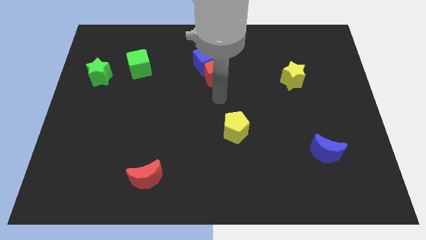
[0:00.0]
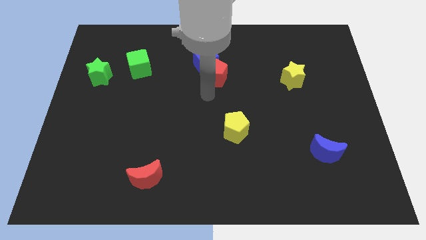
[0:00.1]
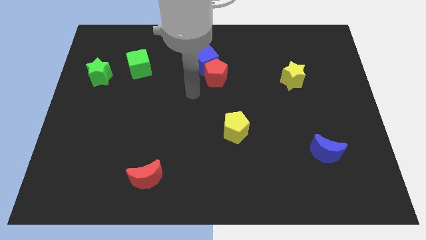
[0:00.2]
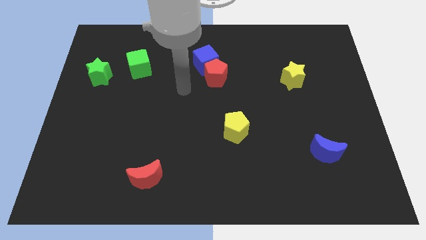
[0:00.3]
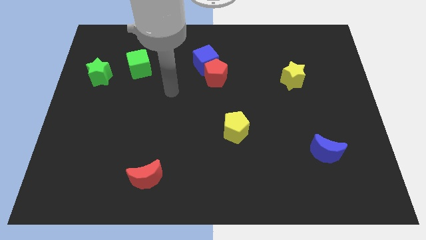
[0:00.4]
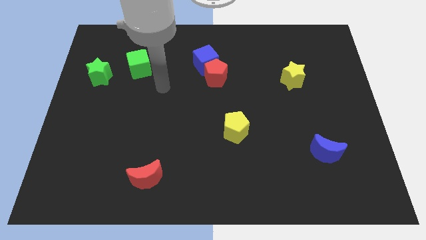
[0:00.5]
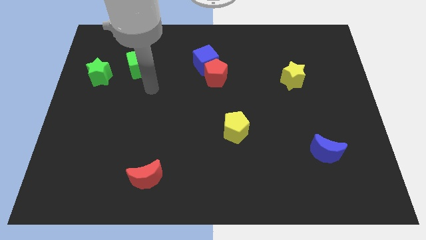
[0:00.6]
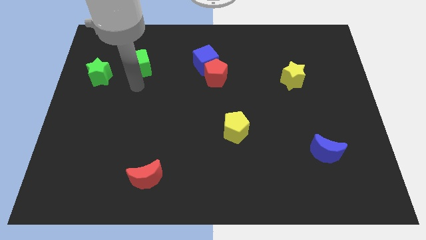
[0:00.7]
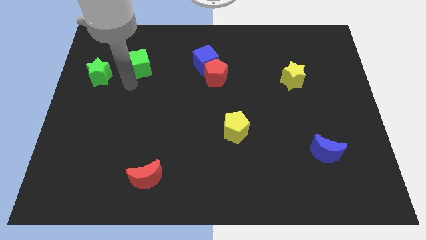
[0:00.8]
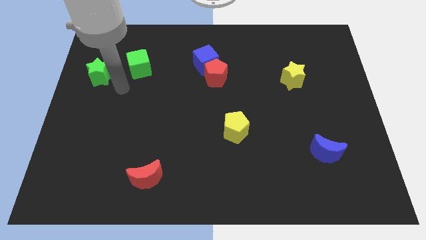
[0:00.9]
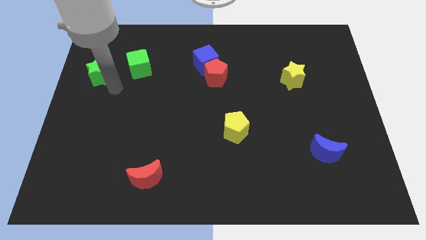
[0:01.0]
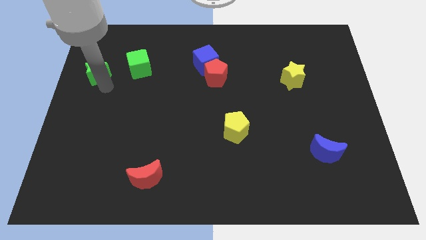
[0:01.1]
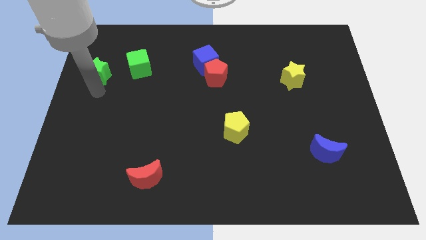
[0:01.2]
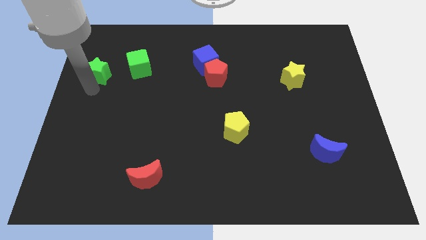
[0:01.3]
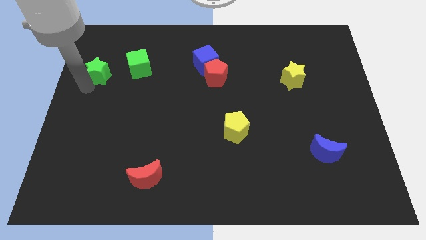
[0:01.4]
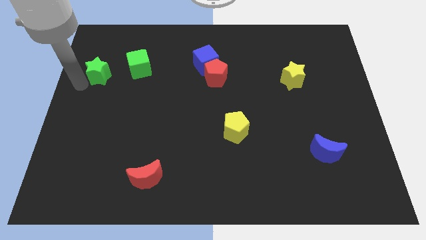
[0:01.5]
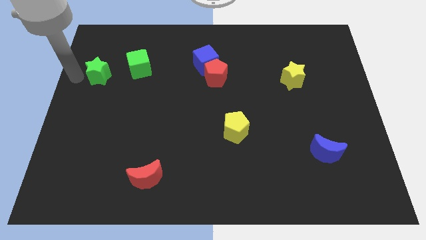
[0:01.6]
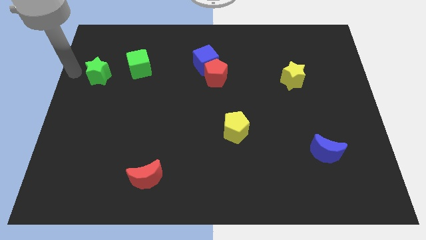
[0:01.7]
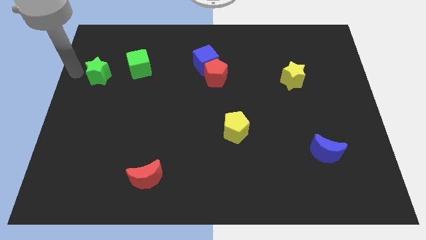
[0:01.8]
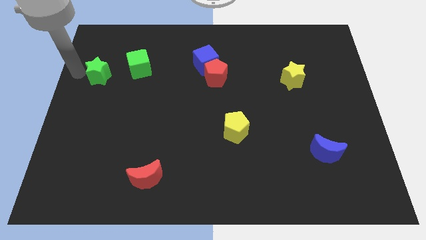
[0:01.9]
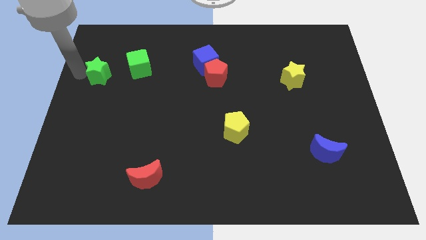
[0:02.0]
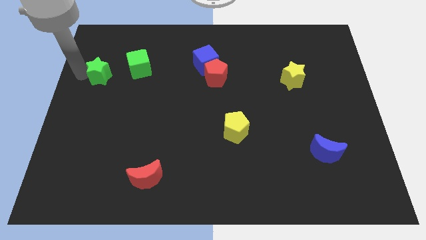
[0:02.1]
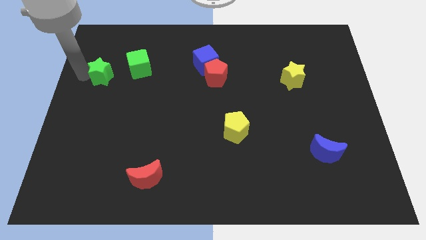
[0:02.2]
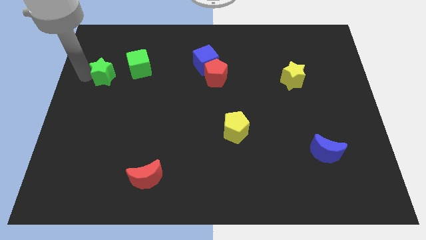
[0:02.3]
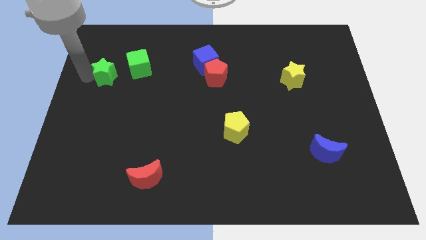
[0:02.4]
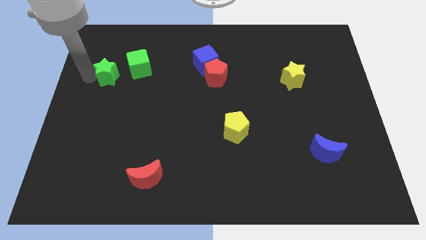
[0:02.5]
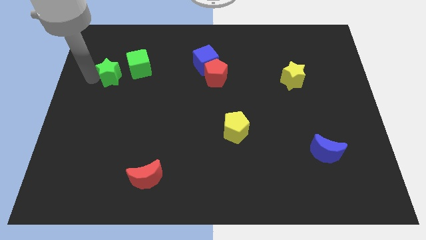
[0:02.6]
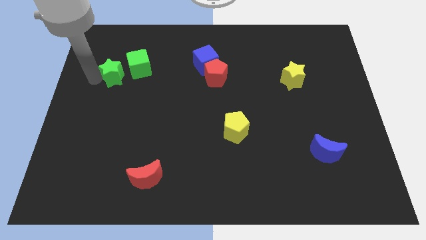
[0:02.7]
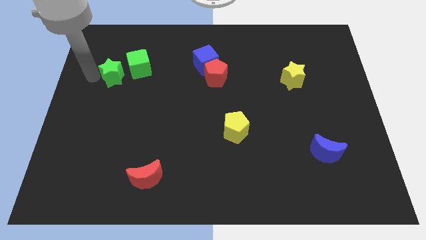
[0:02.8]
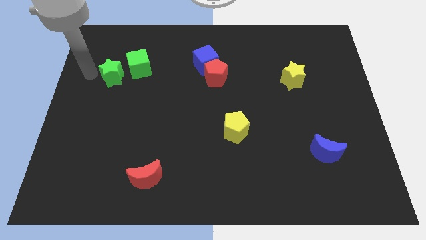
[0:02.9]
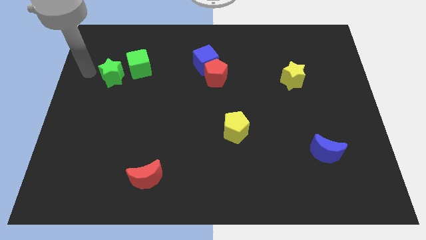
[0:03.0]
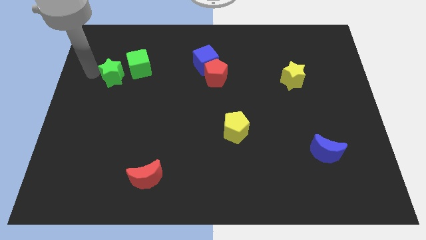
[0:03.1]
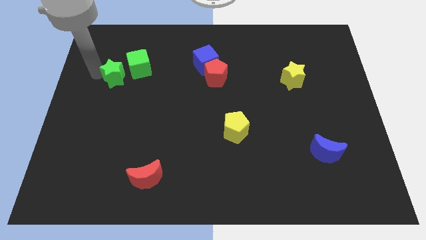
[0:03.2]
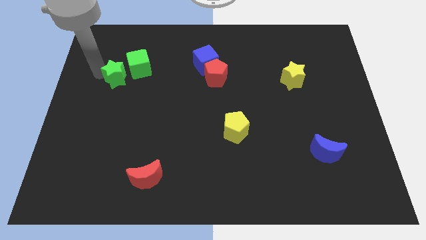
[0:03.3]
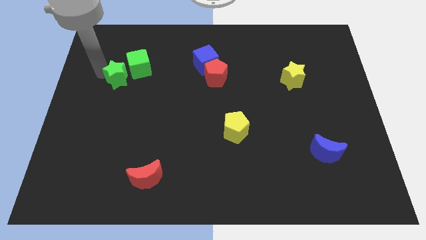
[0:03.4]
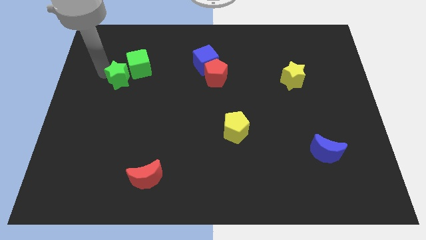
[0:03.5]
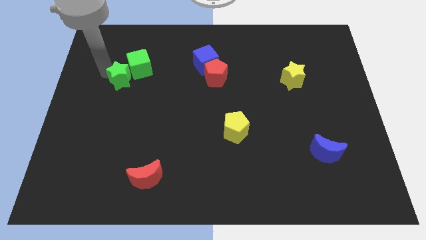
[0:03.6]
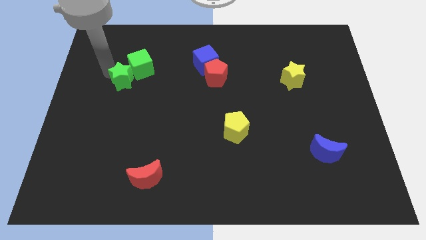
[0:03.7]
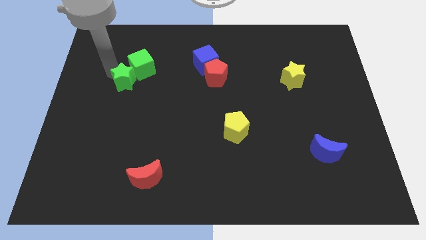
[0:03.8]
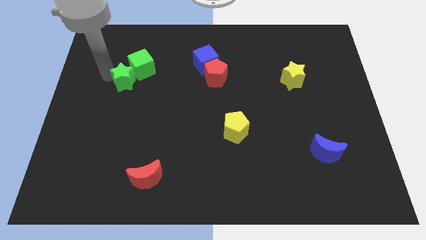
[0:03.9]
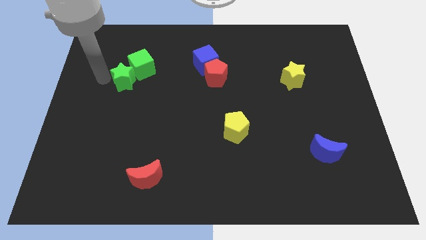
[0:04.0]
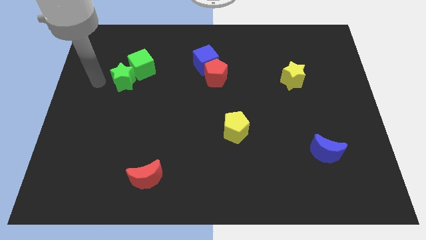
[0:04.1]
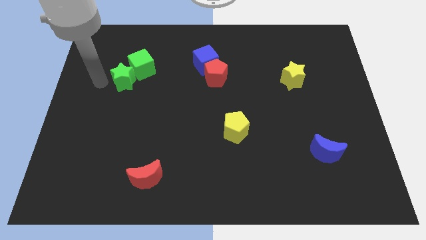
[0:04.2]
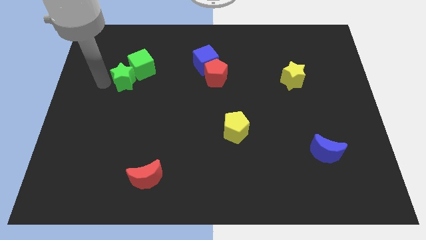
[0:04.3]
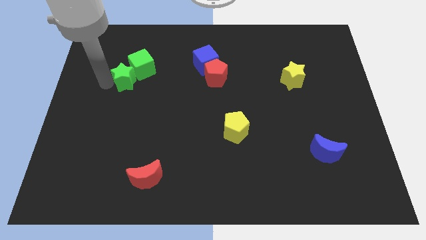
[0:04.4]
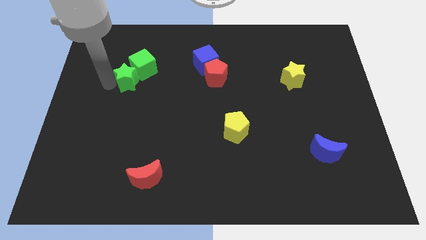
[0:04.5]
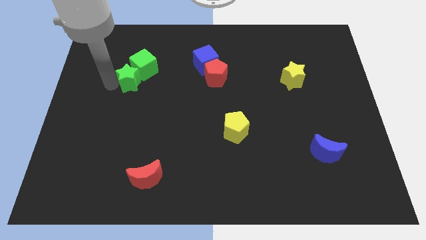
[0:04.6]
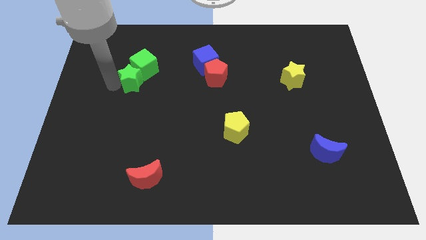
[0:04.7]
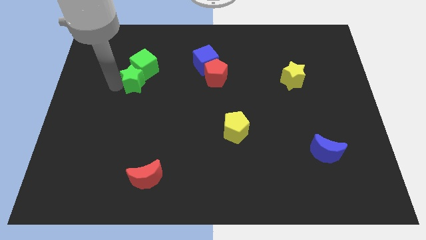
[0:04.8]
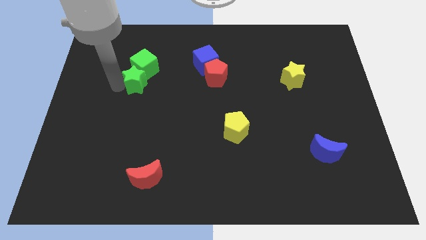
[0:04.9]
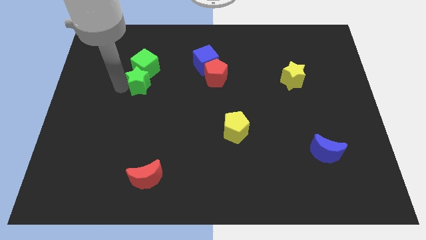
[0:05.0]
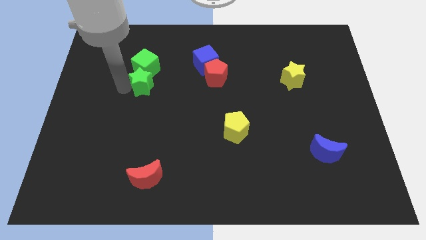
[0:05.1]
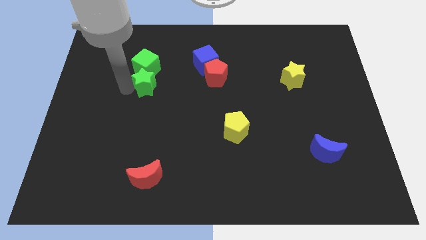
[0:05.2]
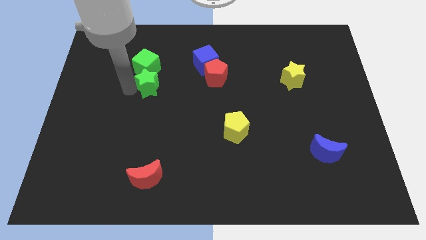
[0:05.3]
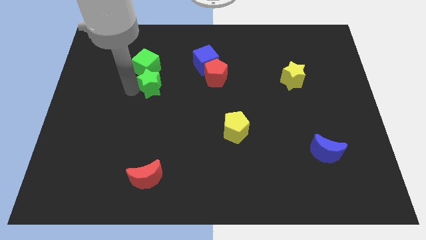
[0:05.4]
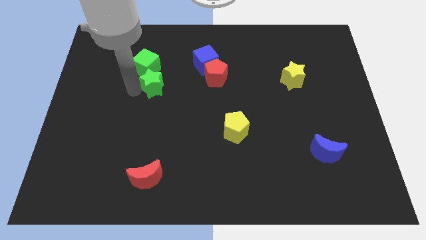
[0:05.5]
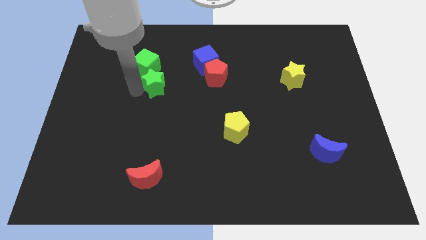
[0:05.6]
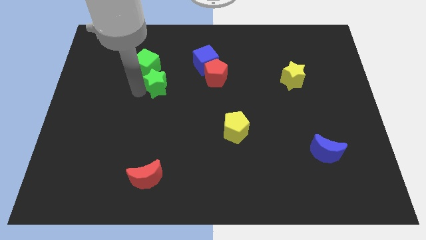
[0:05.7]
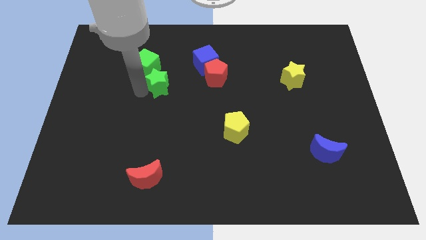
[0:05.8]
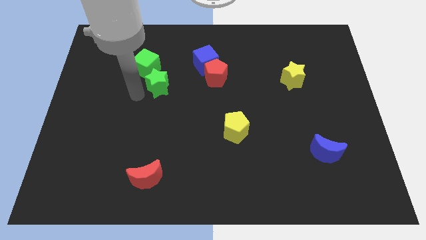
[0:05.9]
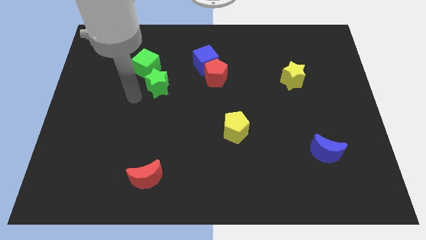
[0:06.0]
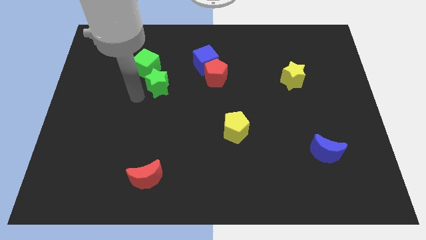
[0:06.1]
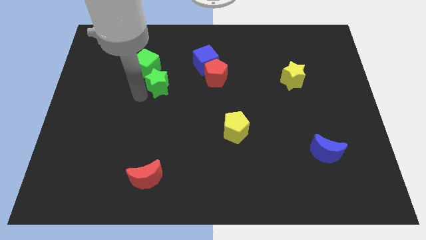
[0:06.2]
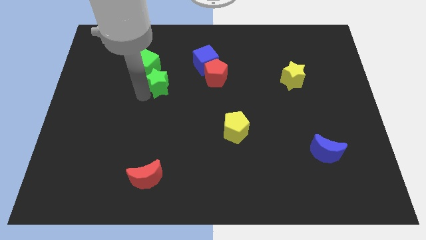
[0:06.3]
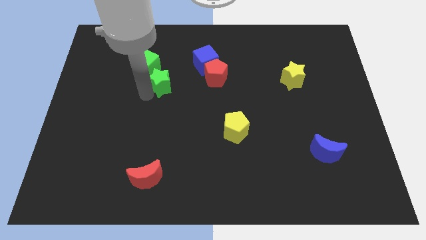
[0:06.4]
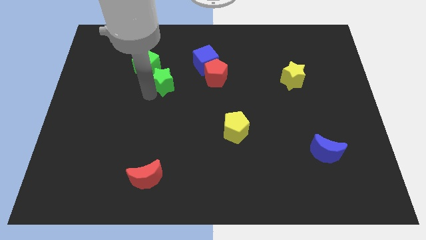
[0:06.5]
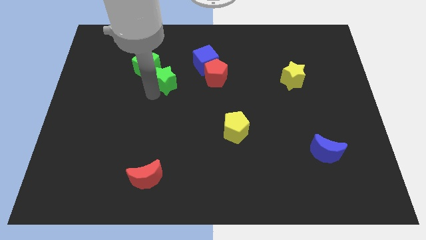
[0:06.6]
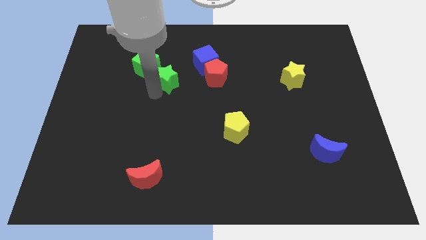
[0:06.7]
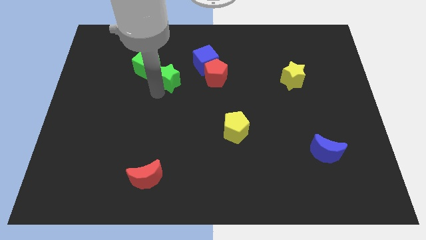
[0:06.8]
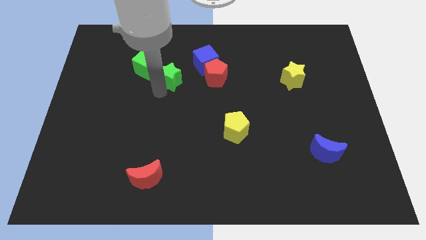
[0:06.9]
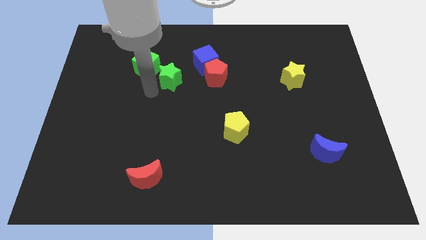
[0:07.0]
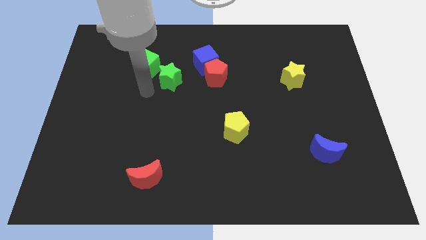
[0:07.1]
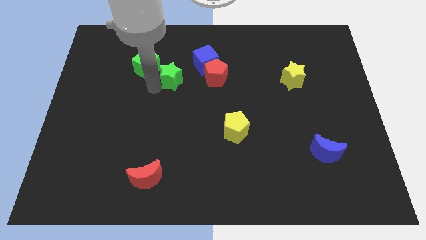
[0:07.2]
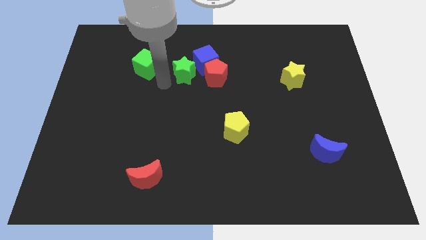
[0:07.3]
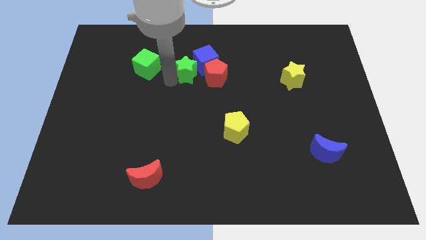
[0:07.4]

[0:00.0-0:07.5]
push the green star next to the blue cube

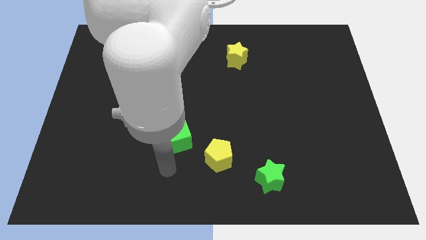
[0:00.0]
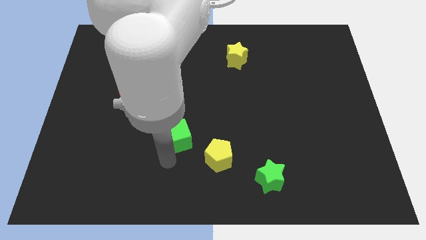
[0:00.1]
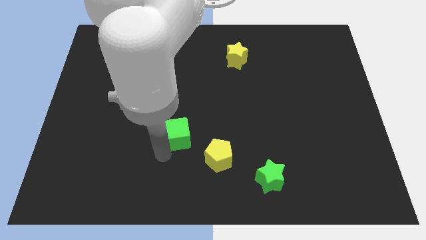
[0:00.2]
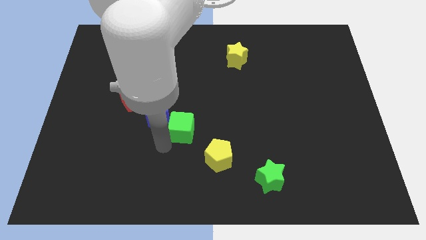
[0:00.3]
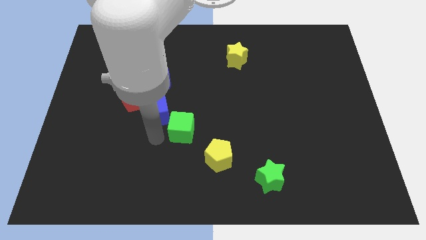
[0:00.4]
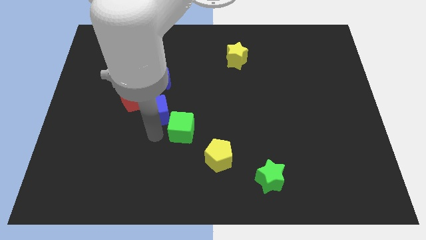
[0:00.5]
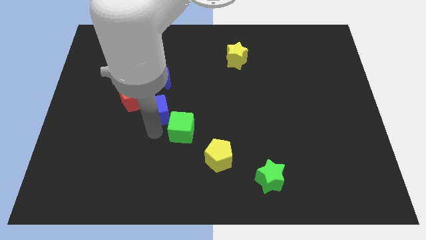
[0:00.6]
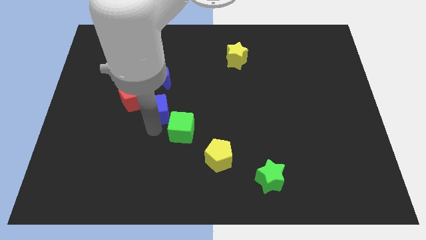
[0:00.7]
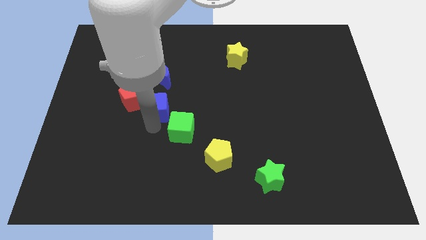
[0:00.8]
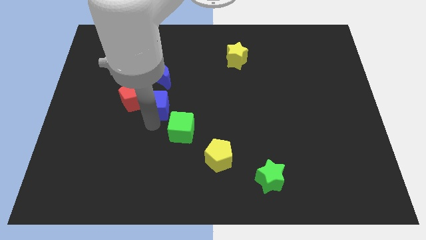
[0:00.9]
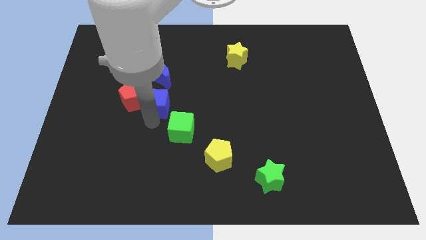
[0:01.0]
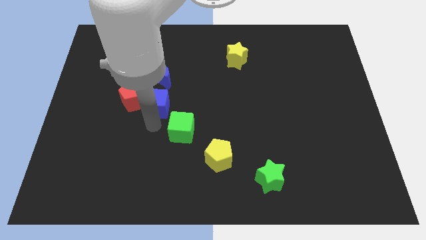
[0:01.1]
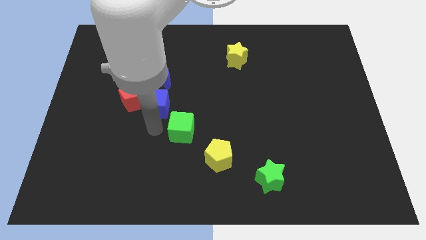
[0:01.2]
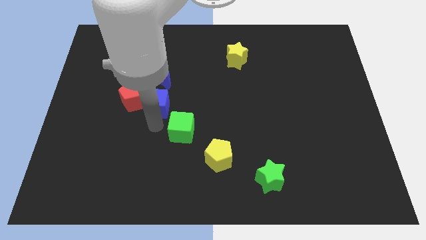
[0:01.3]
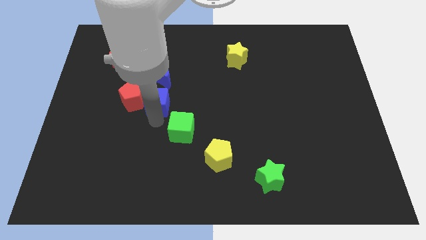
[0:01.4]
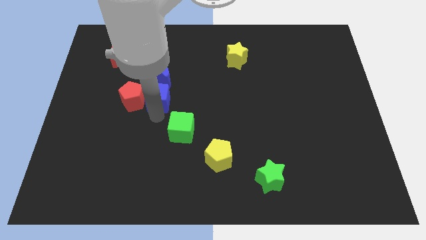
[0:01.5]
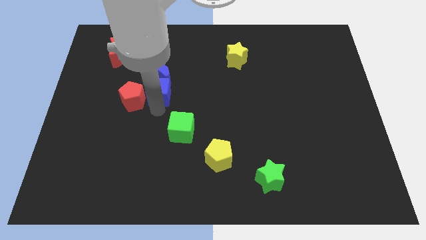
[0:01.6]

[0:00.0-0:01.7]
move the blue cube towards the blue moon
